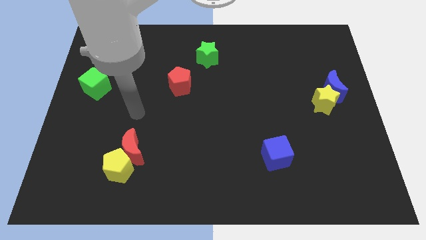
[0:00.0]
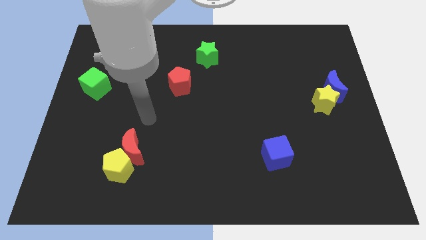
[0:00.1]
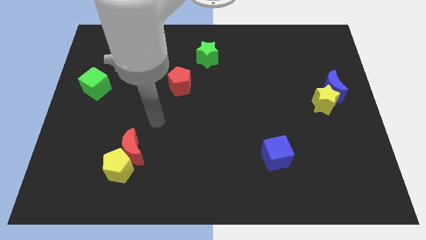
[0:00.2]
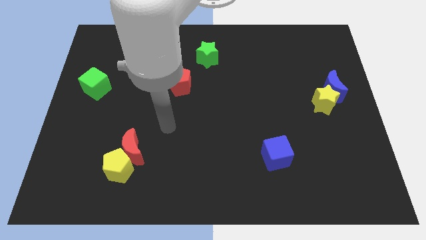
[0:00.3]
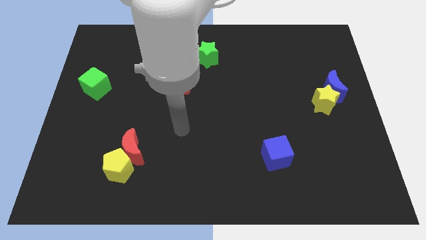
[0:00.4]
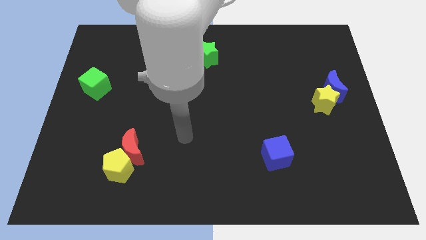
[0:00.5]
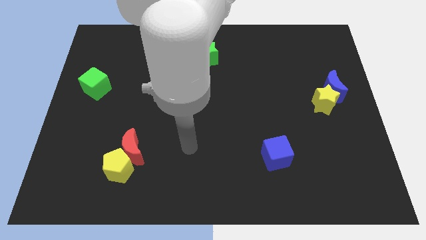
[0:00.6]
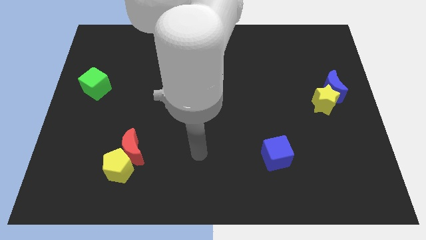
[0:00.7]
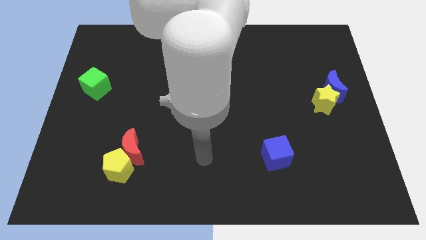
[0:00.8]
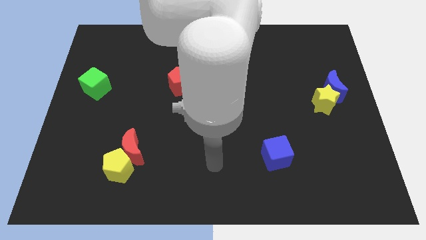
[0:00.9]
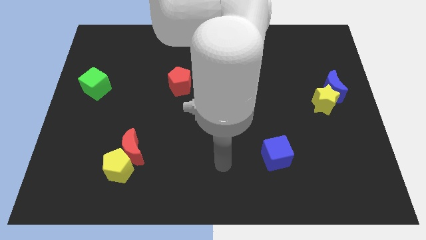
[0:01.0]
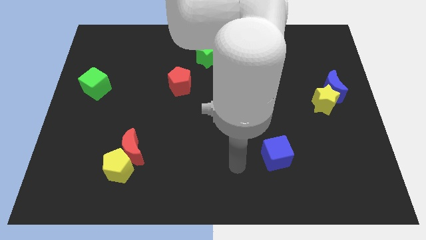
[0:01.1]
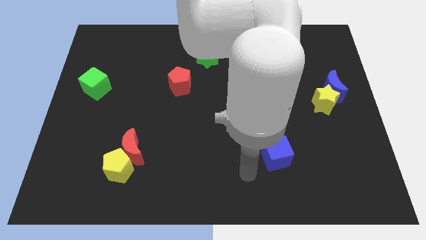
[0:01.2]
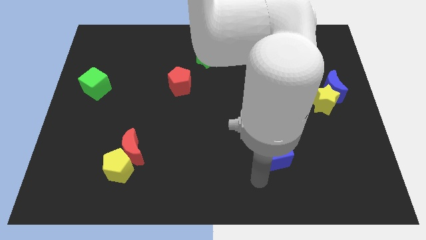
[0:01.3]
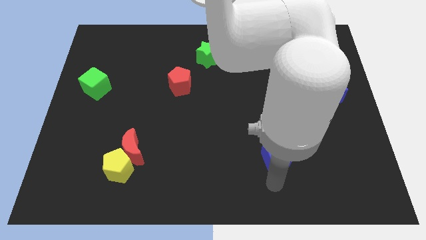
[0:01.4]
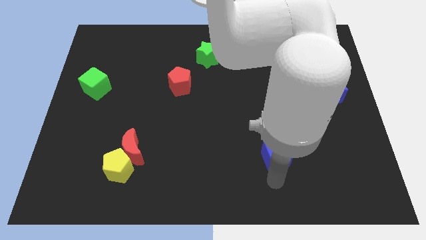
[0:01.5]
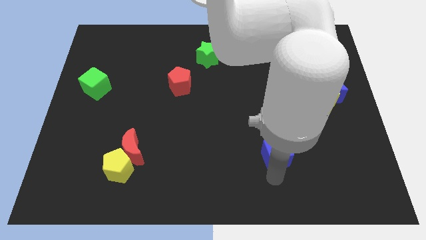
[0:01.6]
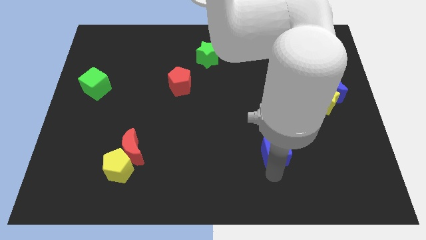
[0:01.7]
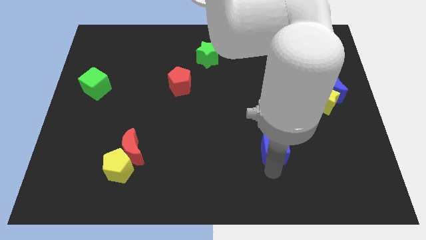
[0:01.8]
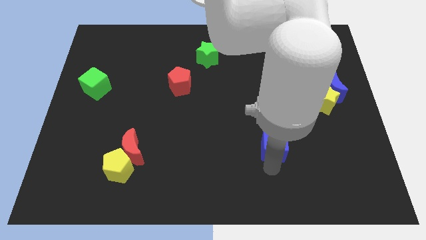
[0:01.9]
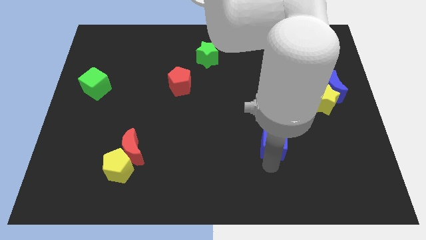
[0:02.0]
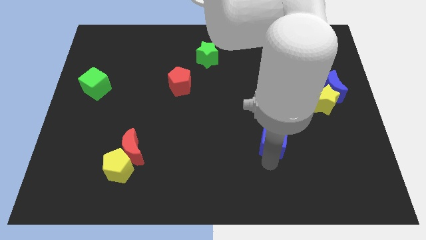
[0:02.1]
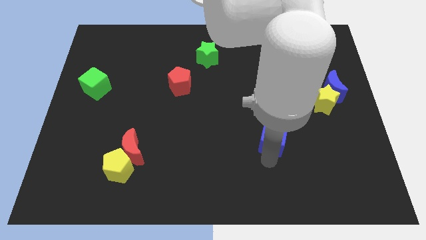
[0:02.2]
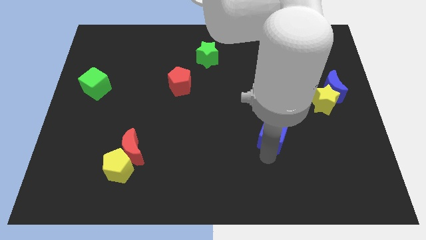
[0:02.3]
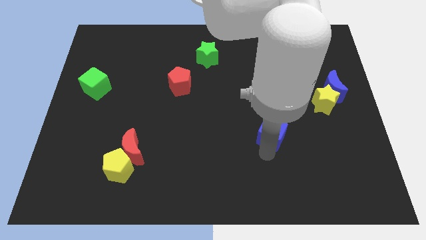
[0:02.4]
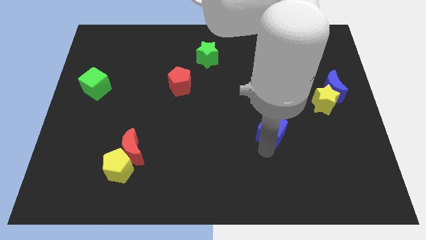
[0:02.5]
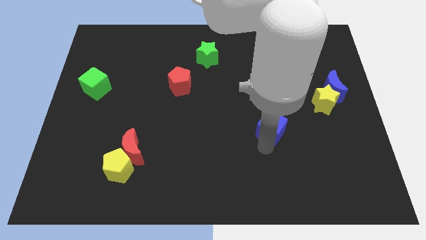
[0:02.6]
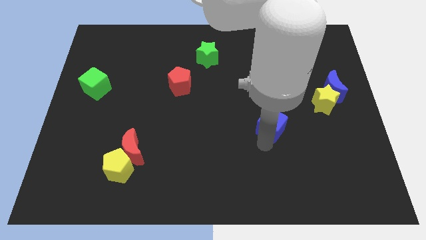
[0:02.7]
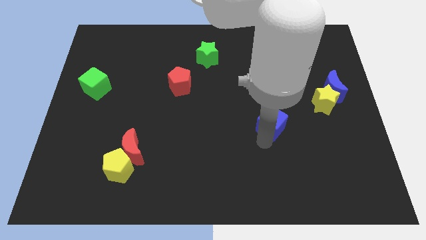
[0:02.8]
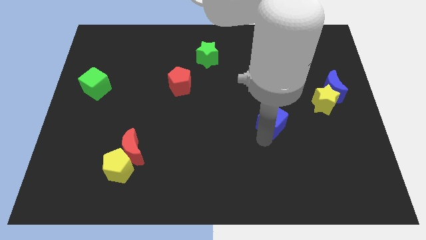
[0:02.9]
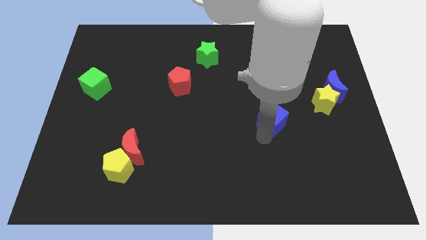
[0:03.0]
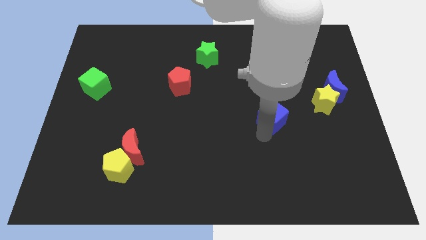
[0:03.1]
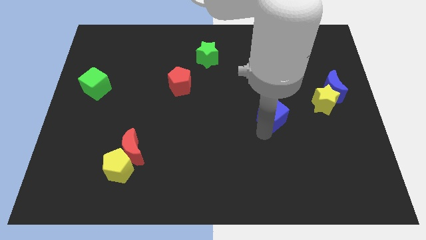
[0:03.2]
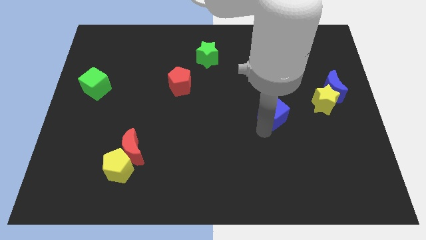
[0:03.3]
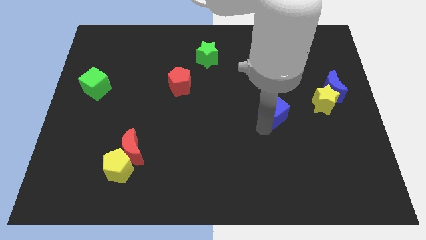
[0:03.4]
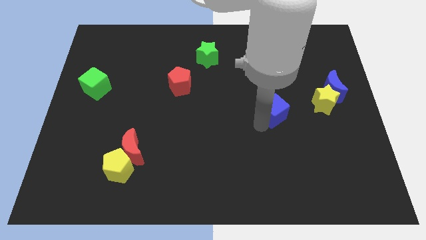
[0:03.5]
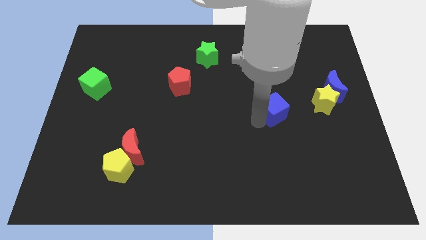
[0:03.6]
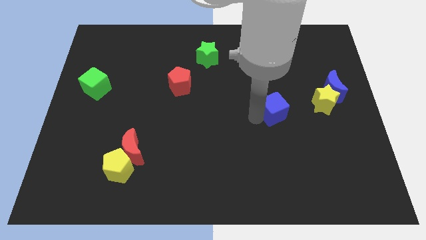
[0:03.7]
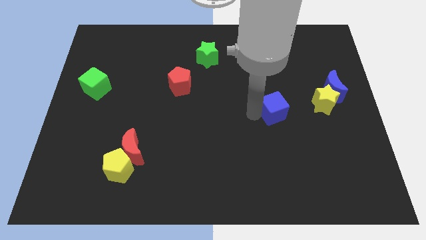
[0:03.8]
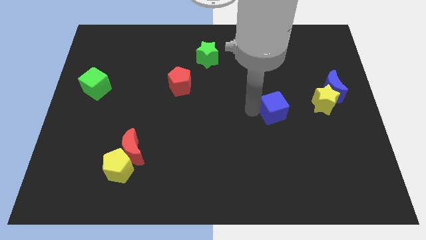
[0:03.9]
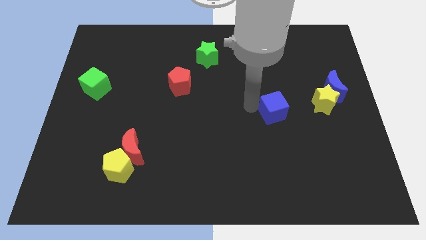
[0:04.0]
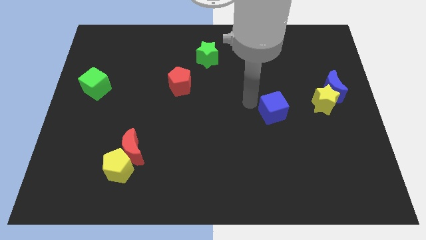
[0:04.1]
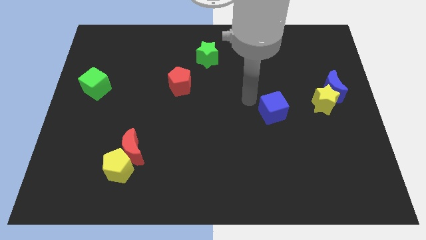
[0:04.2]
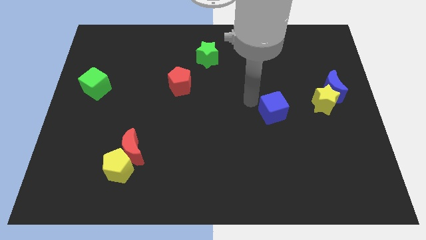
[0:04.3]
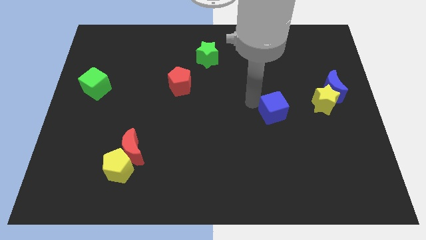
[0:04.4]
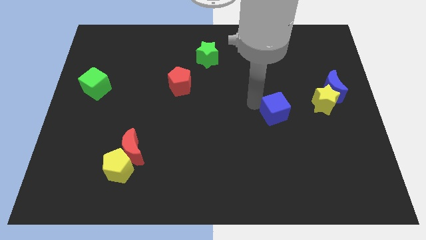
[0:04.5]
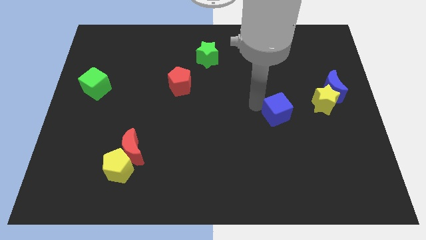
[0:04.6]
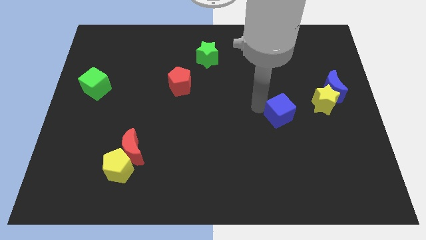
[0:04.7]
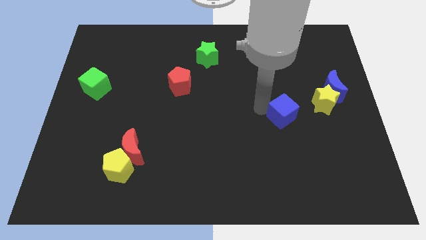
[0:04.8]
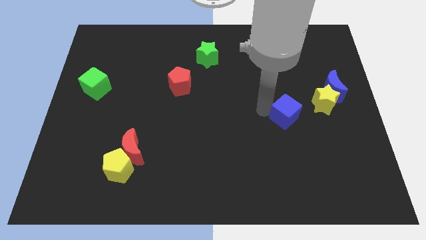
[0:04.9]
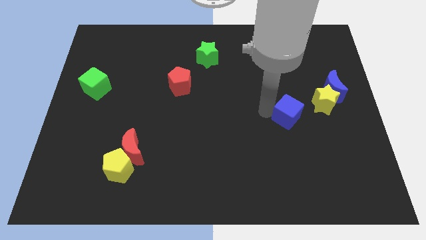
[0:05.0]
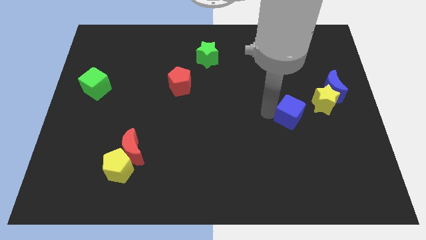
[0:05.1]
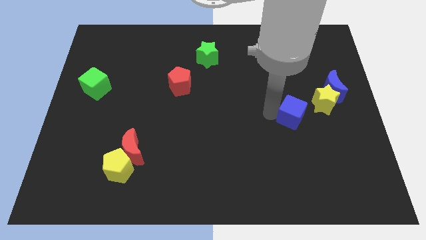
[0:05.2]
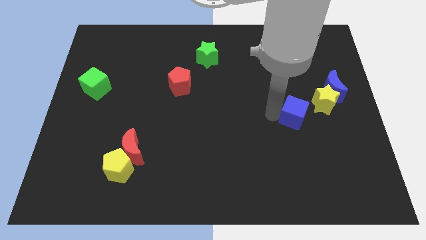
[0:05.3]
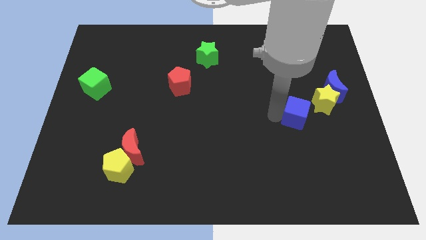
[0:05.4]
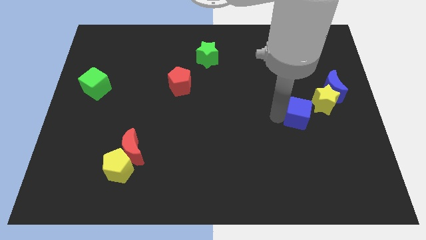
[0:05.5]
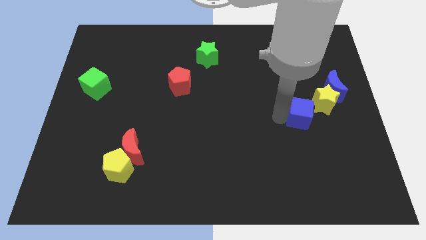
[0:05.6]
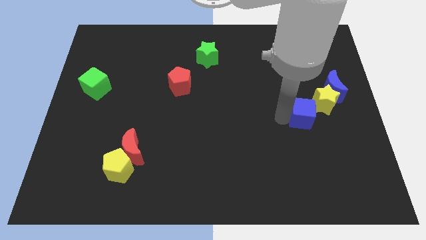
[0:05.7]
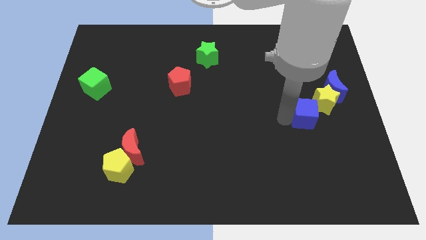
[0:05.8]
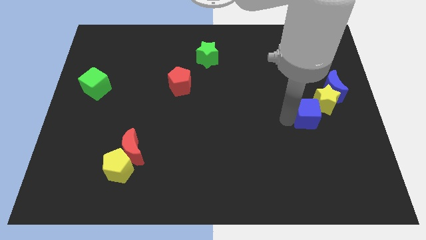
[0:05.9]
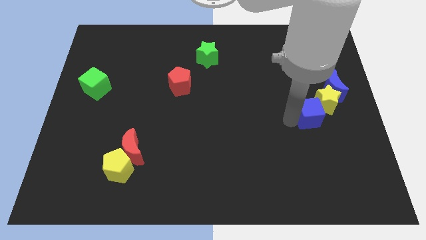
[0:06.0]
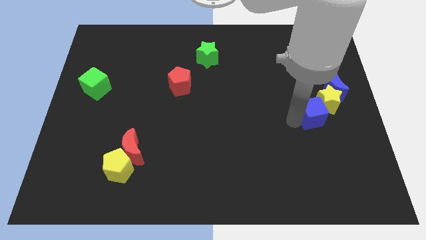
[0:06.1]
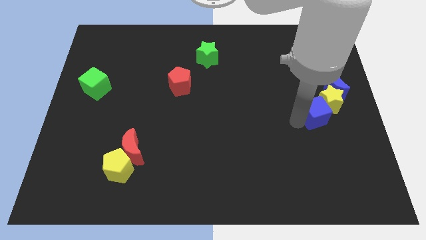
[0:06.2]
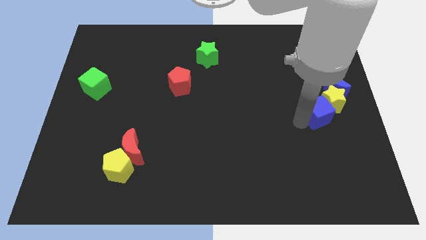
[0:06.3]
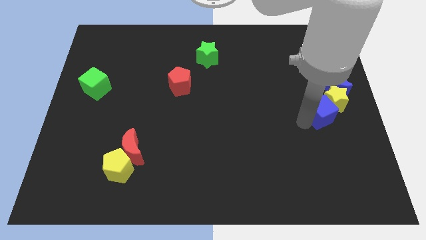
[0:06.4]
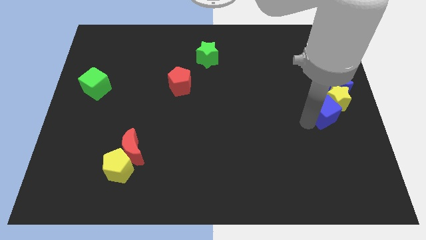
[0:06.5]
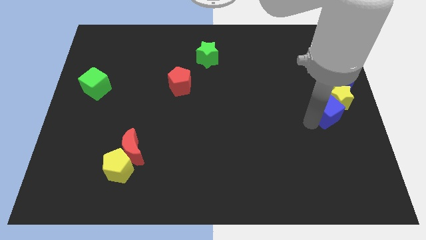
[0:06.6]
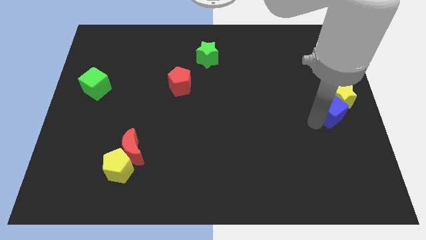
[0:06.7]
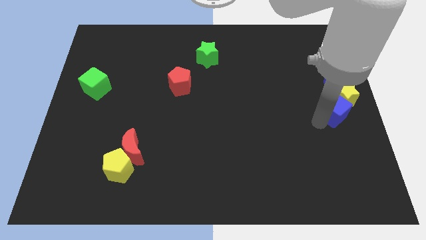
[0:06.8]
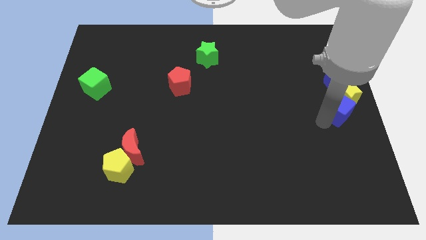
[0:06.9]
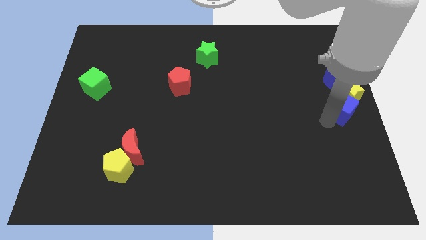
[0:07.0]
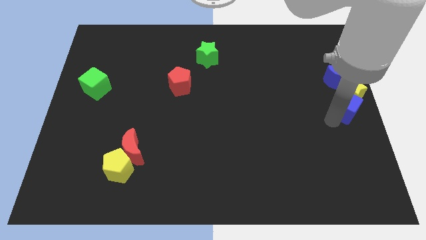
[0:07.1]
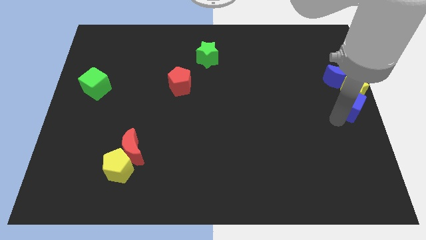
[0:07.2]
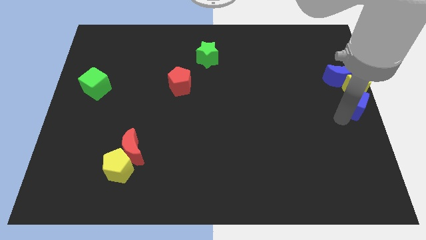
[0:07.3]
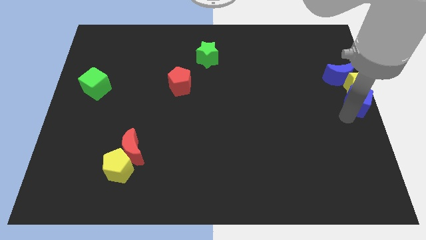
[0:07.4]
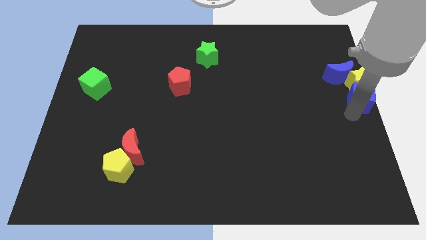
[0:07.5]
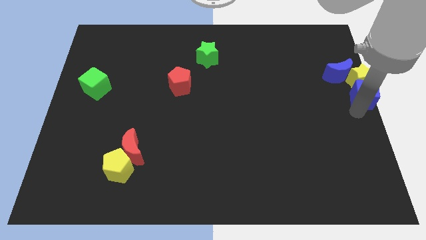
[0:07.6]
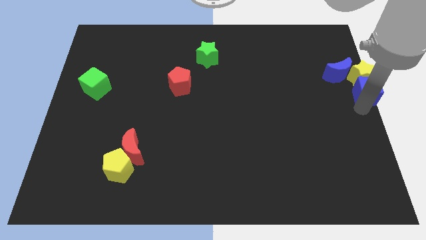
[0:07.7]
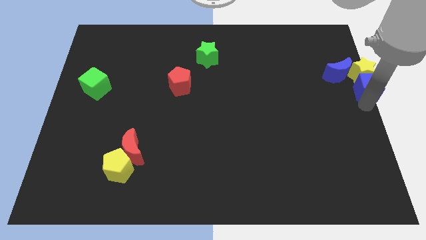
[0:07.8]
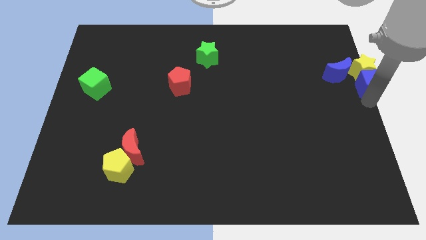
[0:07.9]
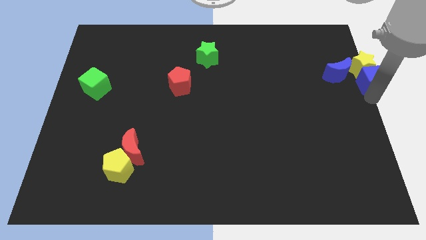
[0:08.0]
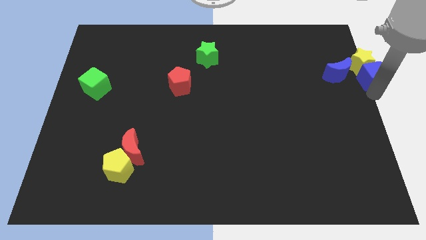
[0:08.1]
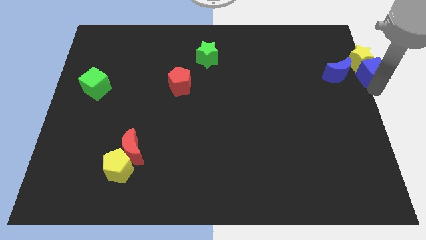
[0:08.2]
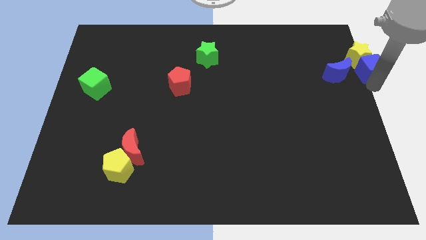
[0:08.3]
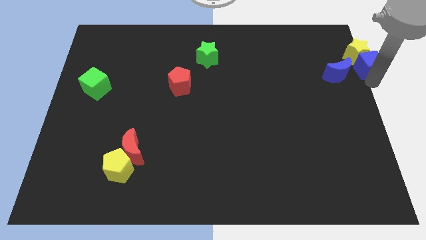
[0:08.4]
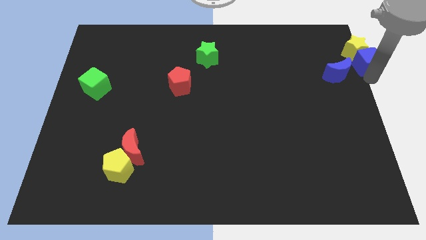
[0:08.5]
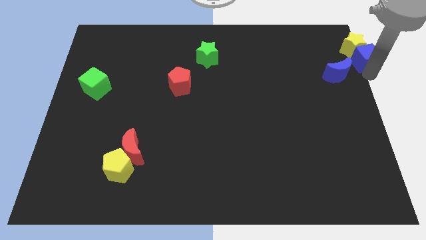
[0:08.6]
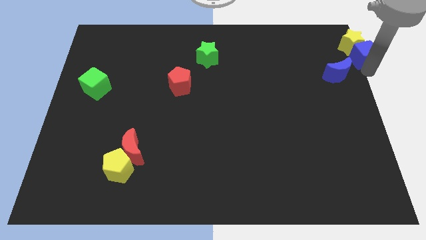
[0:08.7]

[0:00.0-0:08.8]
move the blue cube to the top right
